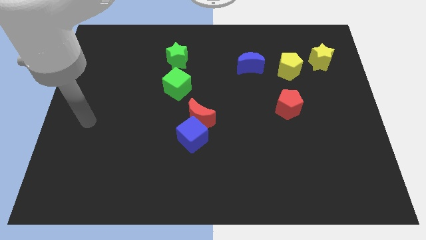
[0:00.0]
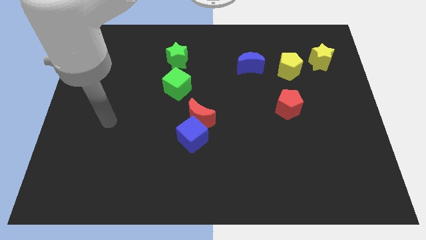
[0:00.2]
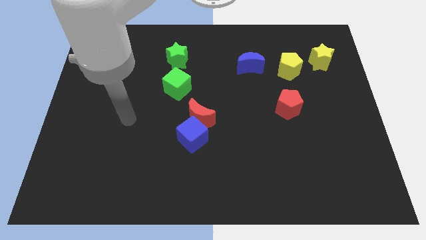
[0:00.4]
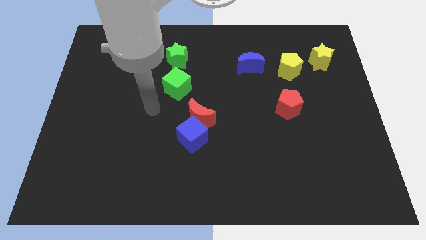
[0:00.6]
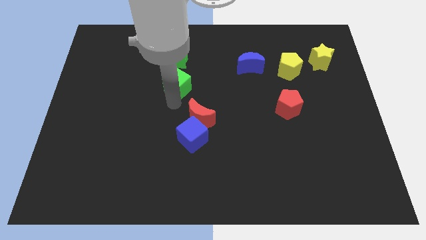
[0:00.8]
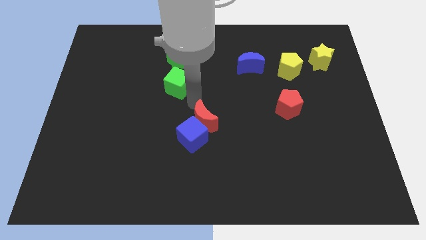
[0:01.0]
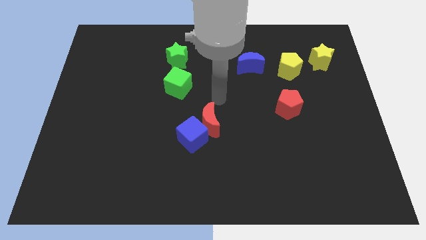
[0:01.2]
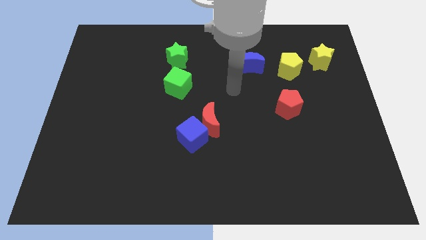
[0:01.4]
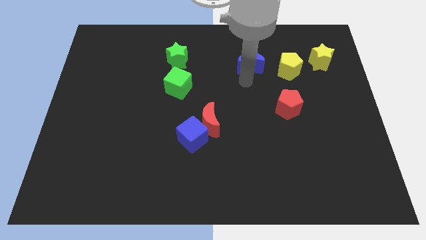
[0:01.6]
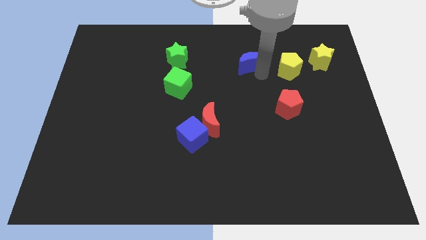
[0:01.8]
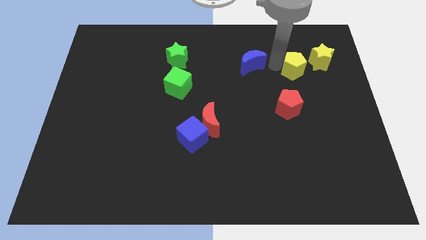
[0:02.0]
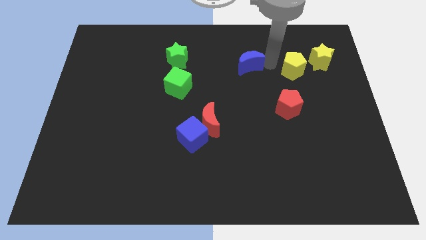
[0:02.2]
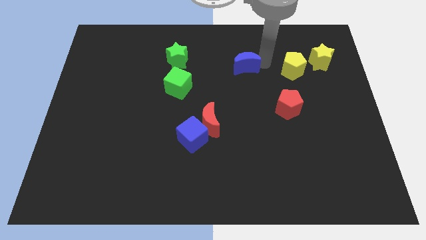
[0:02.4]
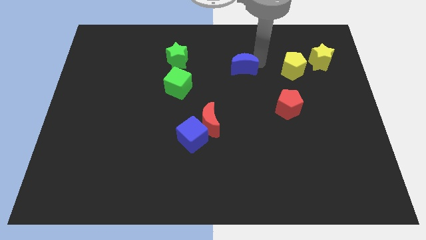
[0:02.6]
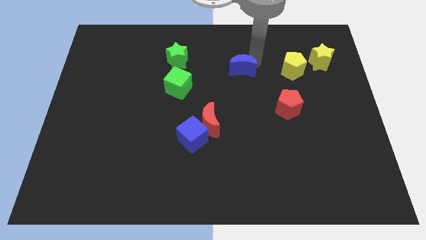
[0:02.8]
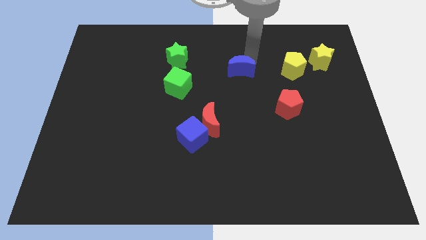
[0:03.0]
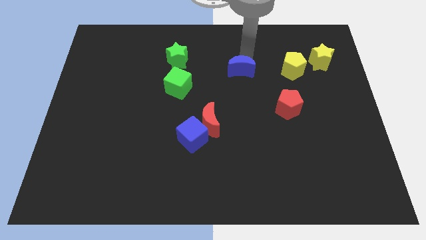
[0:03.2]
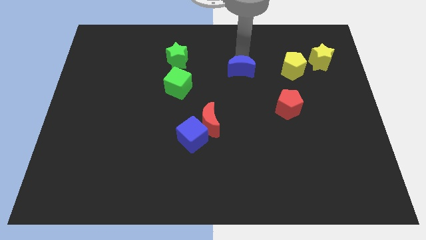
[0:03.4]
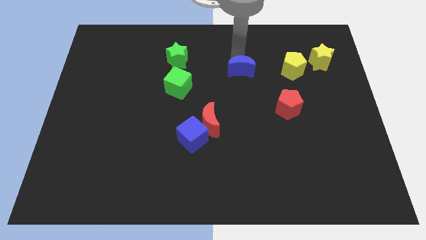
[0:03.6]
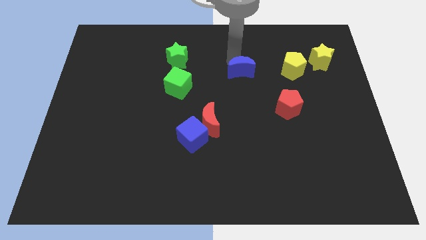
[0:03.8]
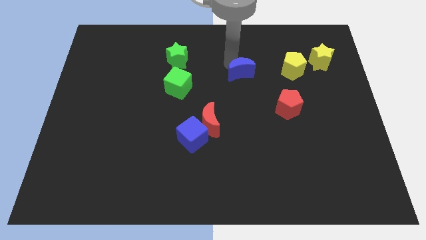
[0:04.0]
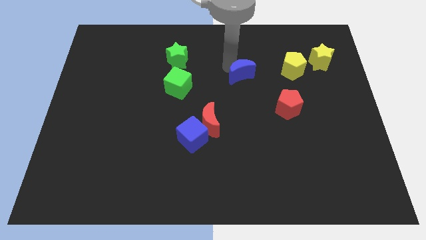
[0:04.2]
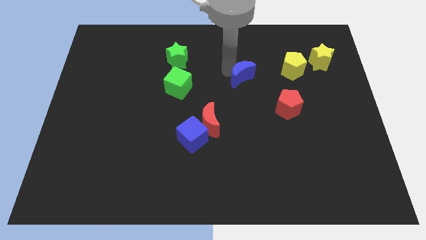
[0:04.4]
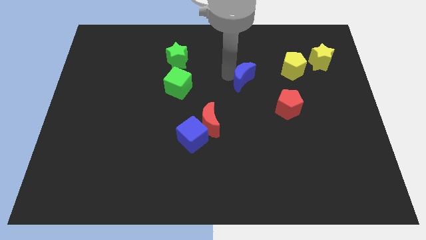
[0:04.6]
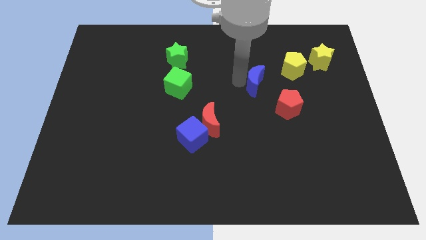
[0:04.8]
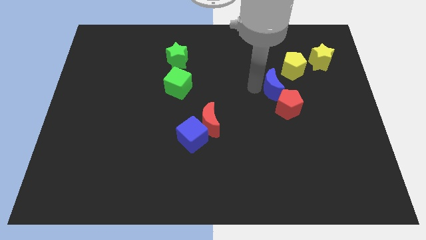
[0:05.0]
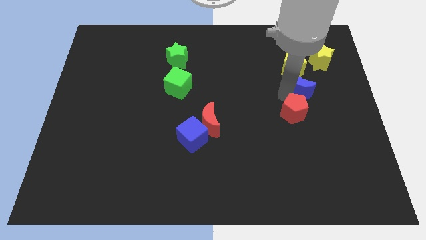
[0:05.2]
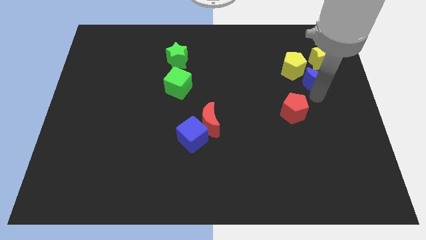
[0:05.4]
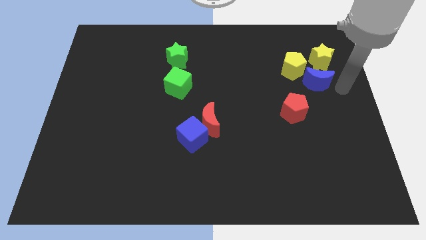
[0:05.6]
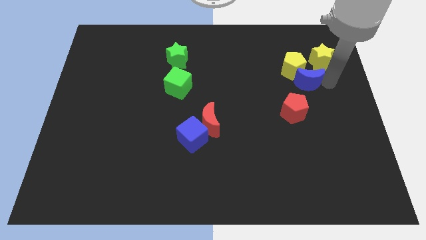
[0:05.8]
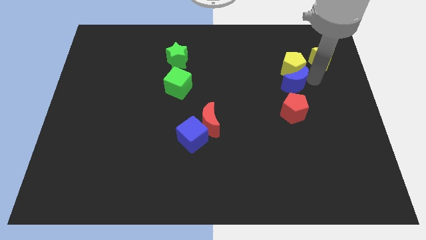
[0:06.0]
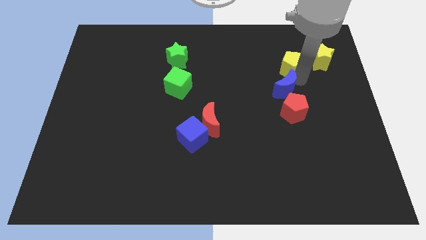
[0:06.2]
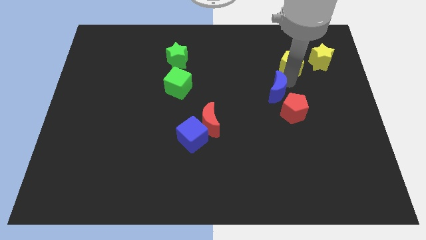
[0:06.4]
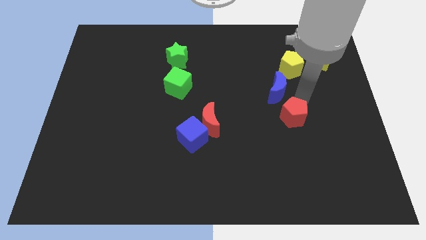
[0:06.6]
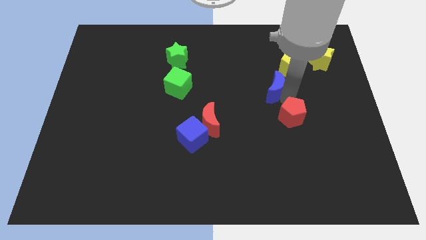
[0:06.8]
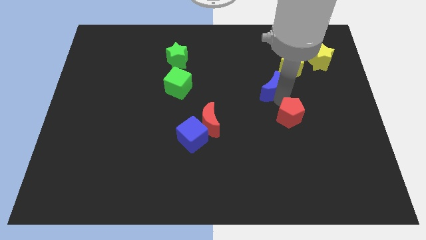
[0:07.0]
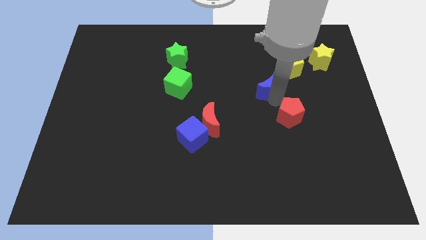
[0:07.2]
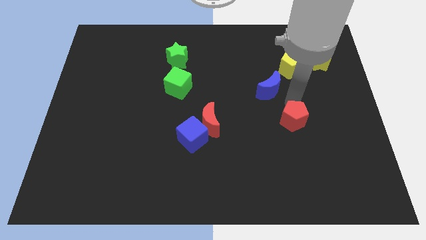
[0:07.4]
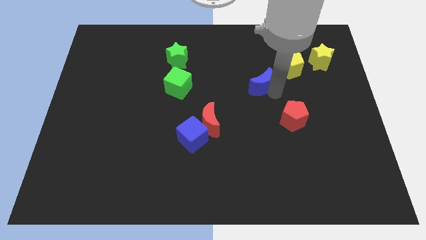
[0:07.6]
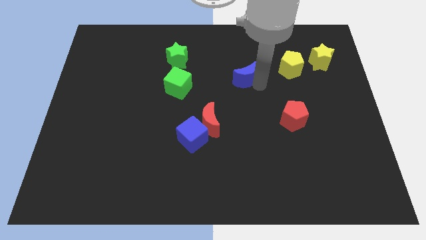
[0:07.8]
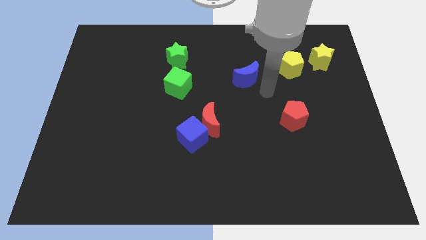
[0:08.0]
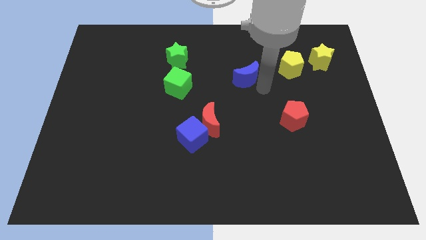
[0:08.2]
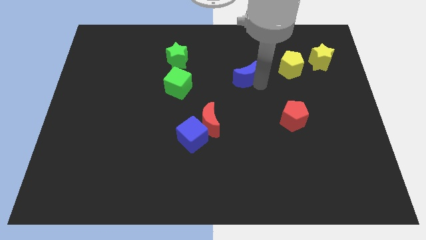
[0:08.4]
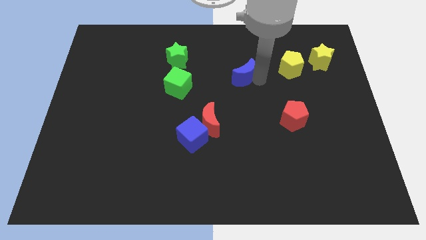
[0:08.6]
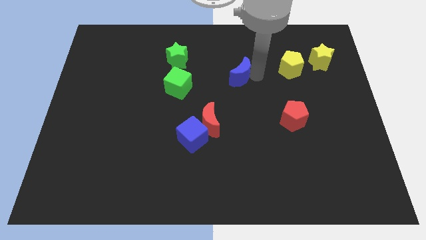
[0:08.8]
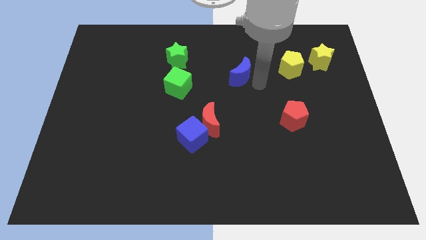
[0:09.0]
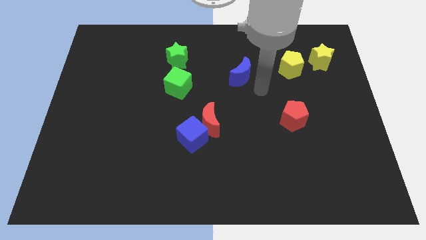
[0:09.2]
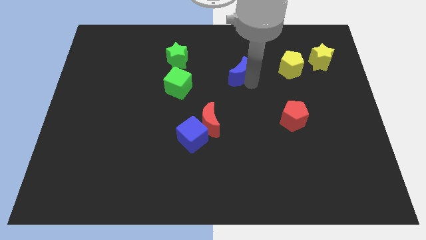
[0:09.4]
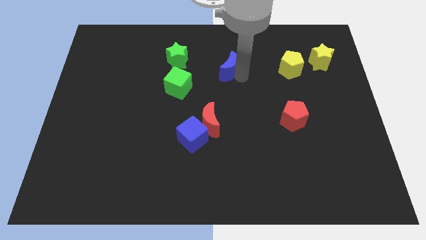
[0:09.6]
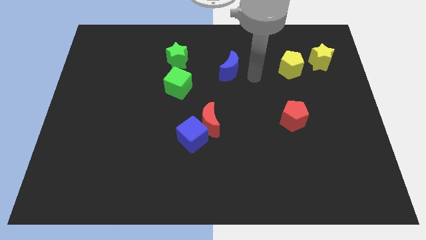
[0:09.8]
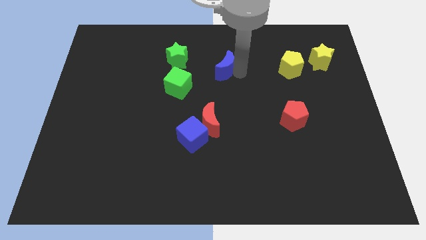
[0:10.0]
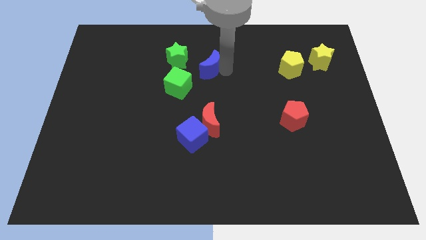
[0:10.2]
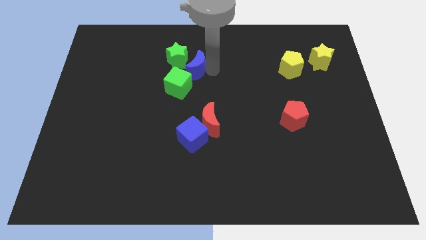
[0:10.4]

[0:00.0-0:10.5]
push the blue moon towards the green star

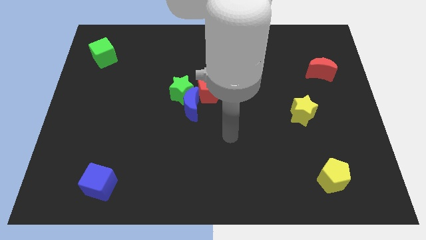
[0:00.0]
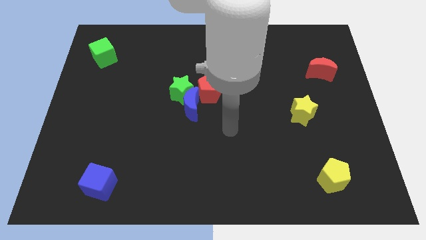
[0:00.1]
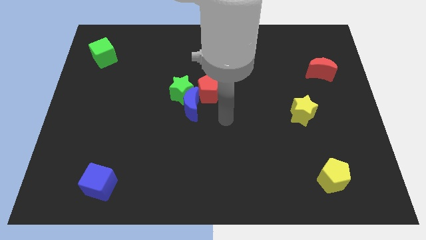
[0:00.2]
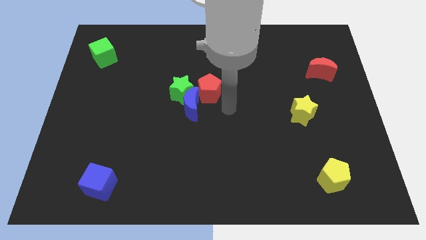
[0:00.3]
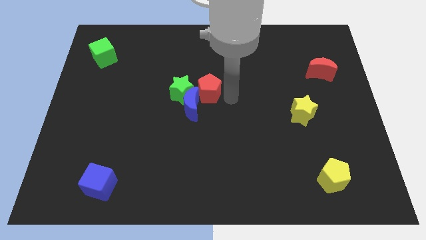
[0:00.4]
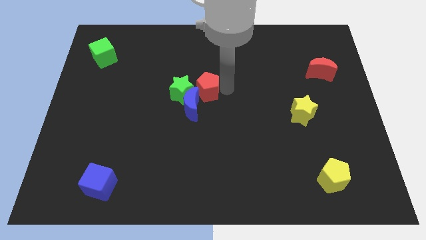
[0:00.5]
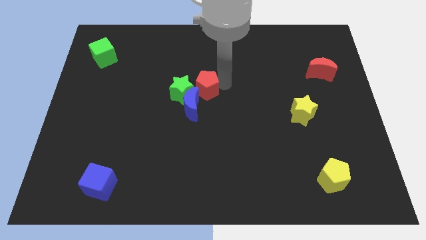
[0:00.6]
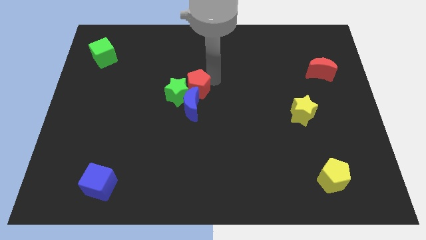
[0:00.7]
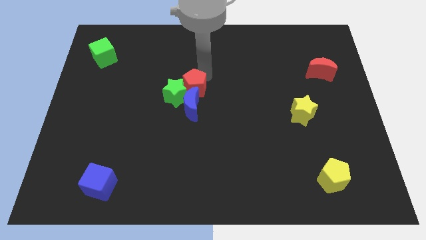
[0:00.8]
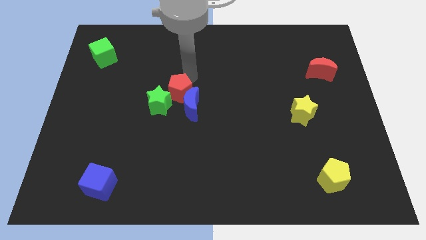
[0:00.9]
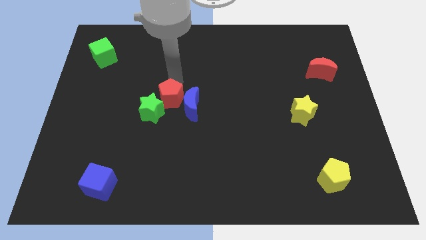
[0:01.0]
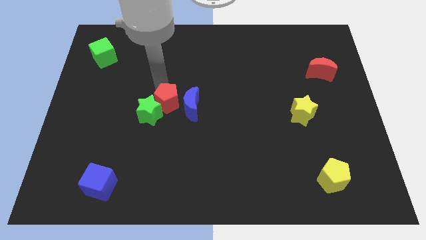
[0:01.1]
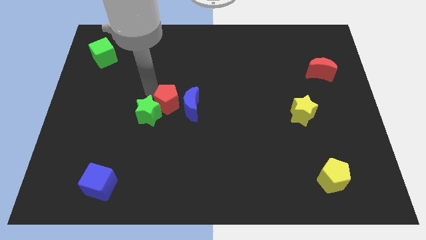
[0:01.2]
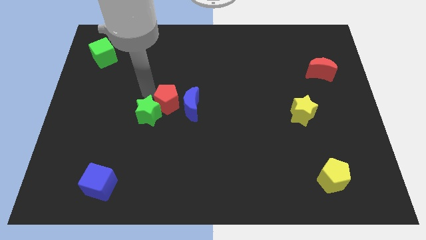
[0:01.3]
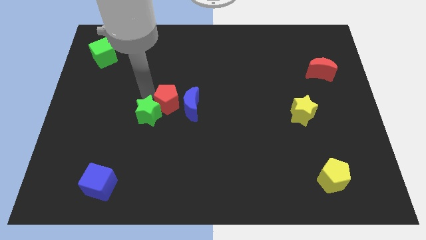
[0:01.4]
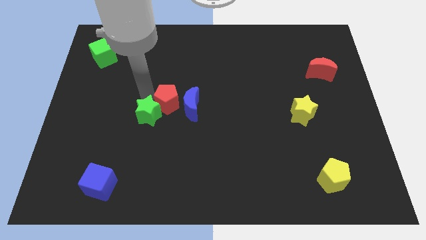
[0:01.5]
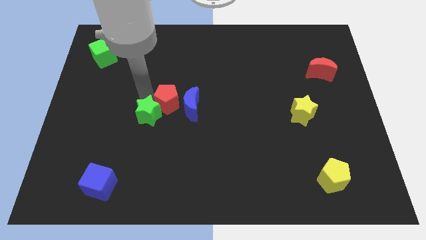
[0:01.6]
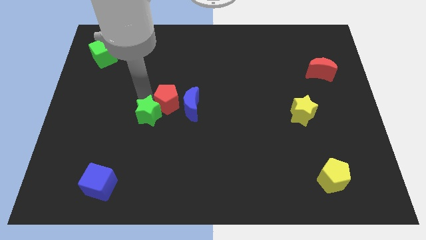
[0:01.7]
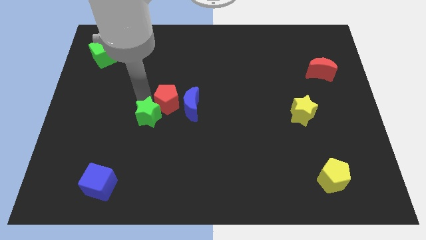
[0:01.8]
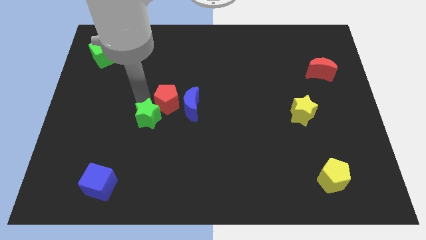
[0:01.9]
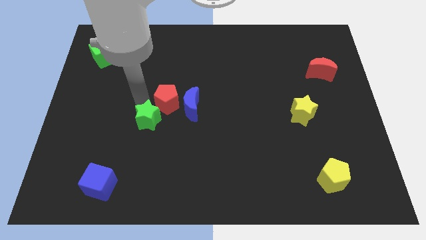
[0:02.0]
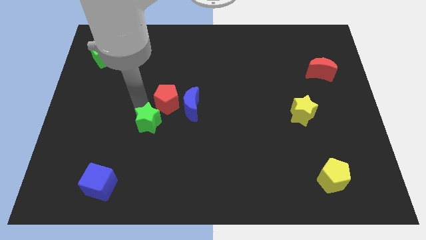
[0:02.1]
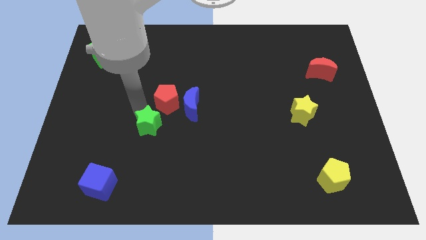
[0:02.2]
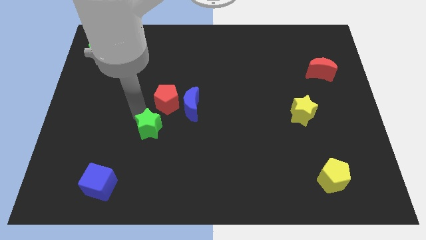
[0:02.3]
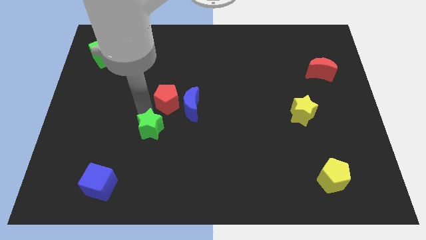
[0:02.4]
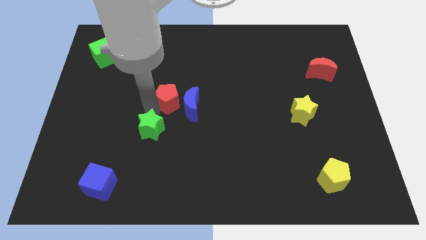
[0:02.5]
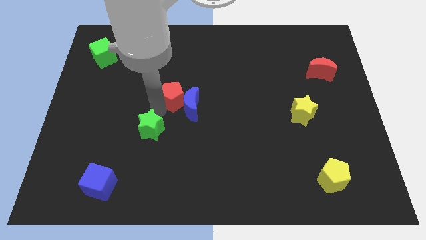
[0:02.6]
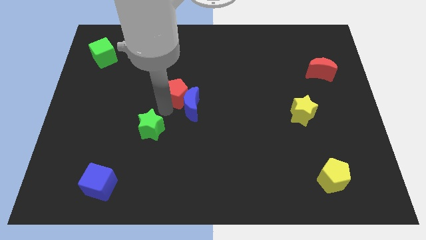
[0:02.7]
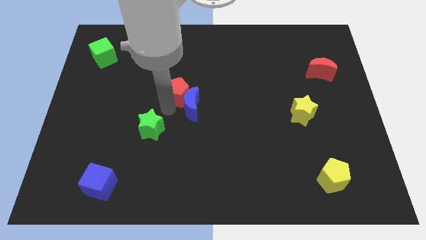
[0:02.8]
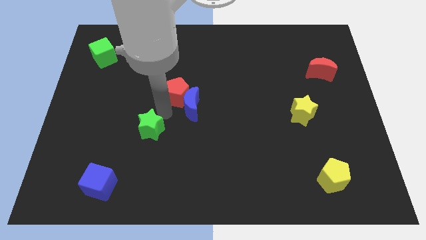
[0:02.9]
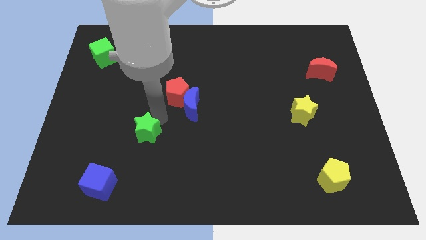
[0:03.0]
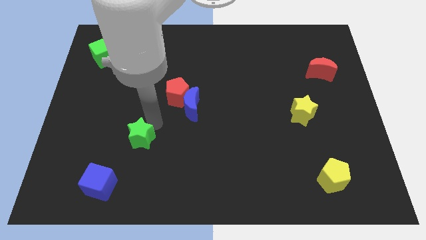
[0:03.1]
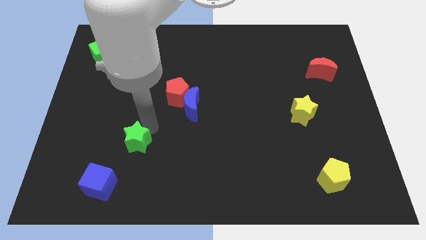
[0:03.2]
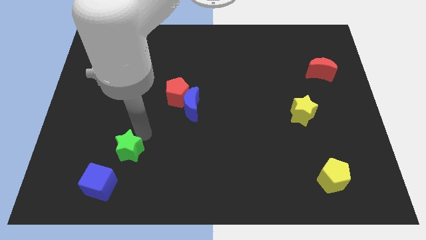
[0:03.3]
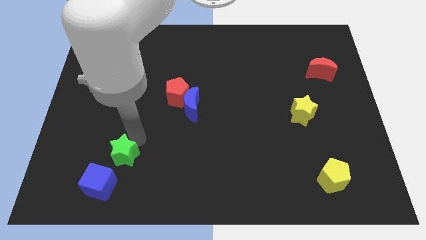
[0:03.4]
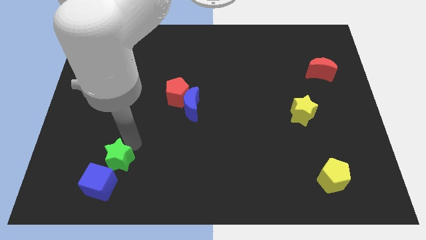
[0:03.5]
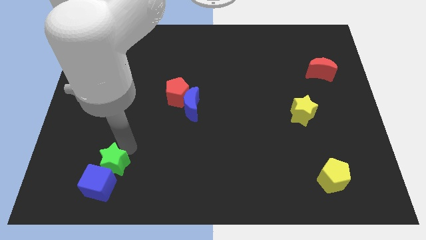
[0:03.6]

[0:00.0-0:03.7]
put the green star towards the blue cube
